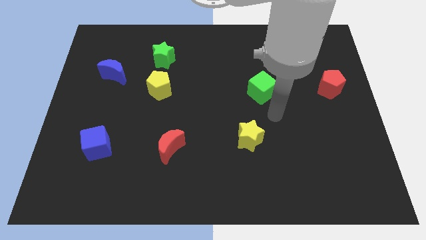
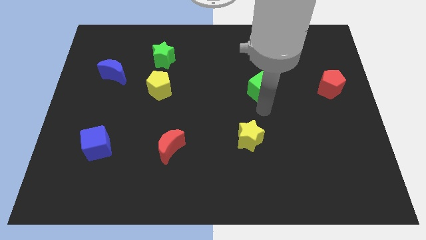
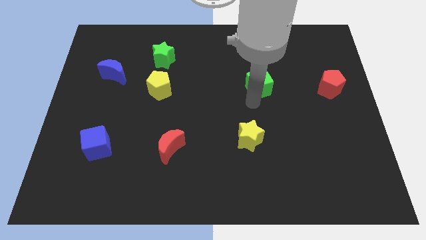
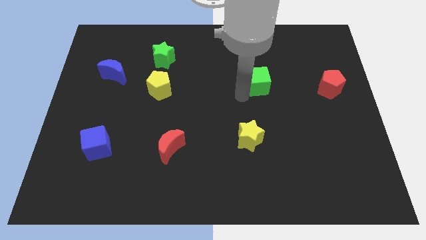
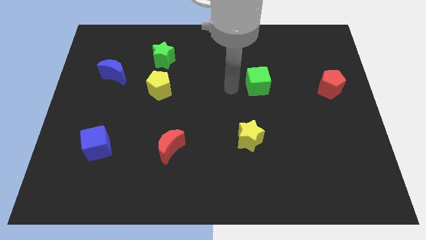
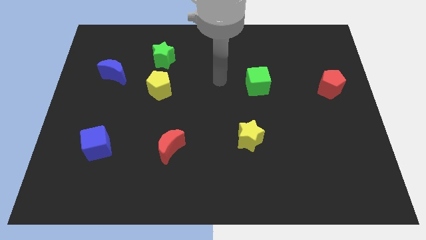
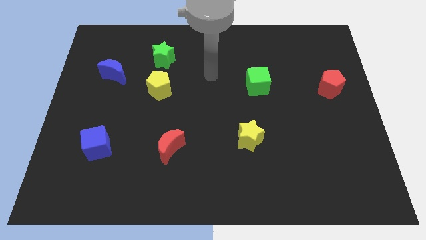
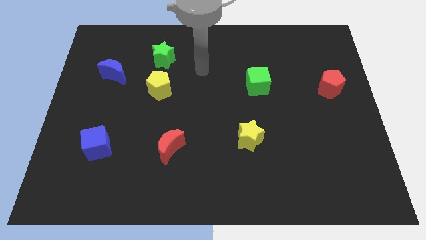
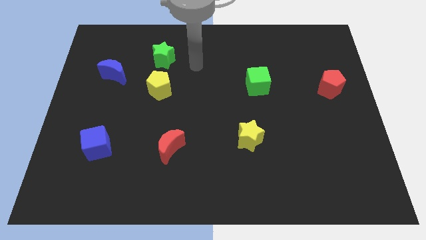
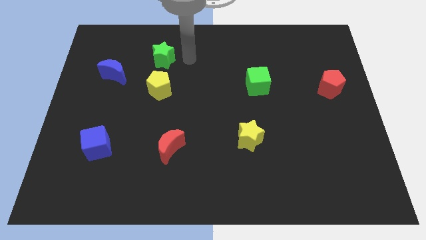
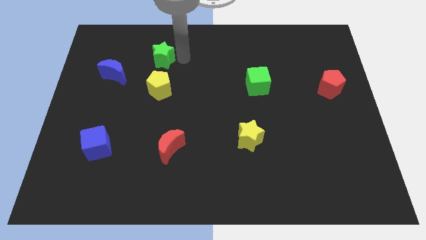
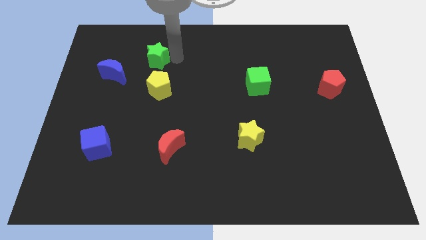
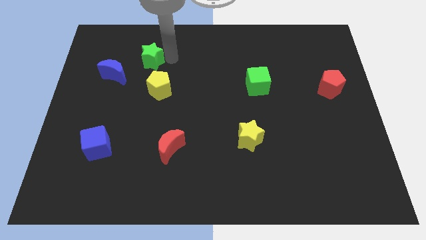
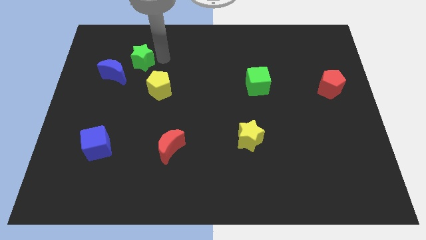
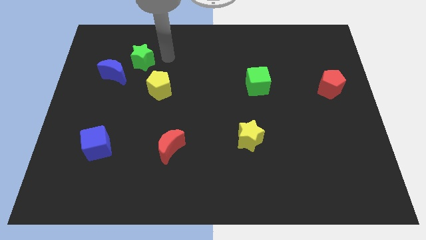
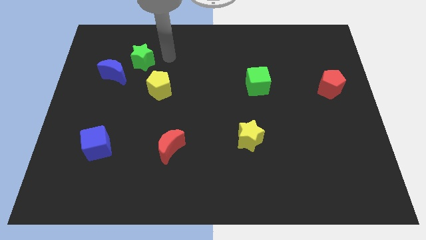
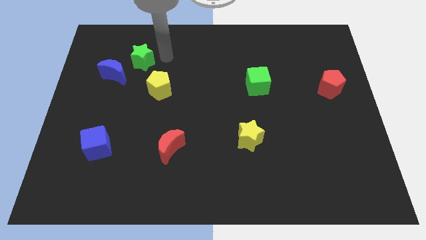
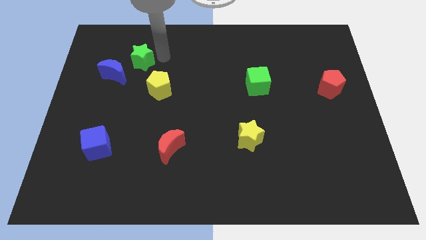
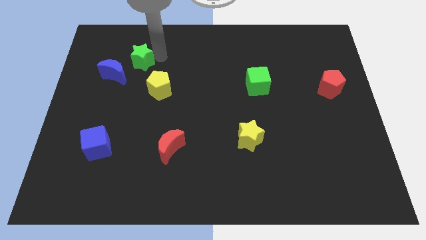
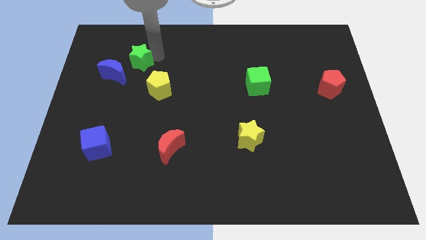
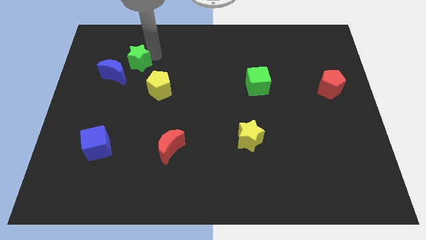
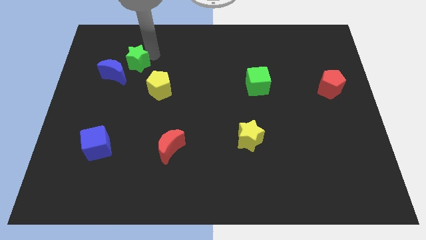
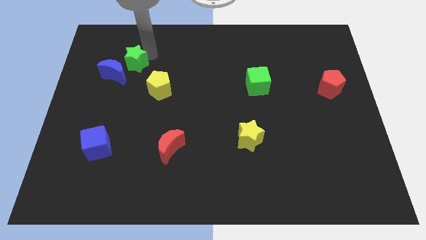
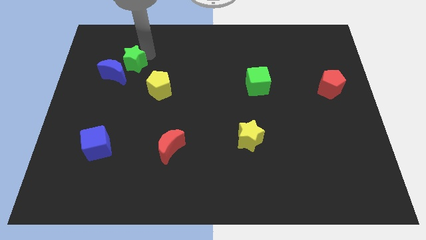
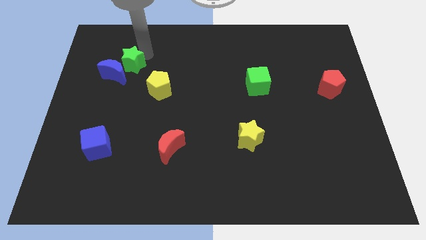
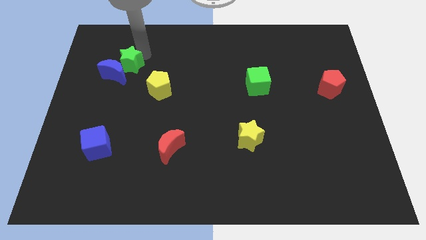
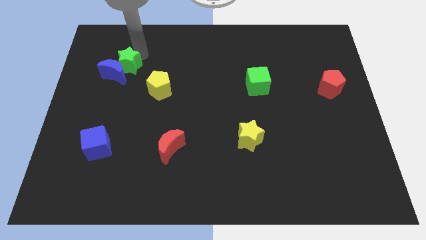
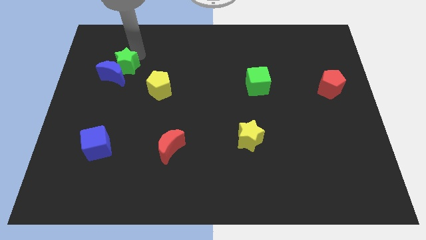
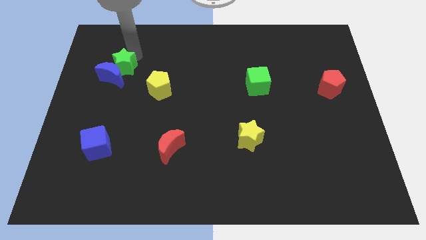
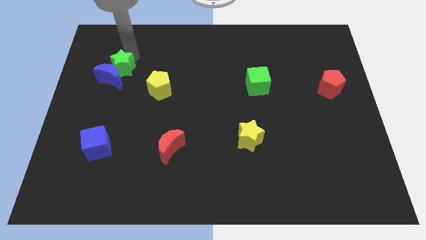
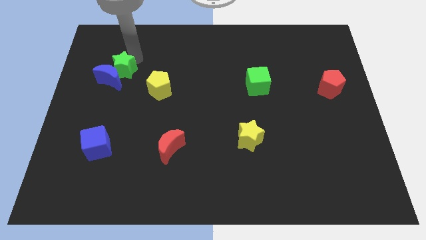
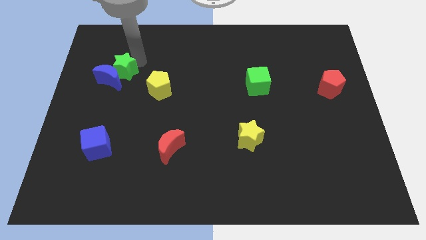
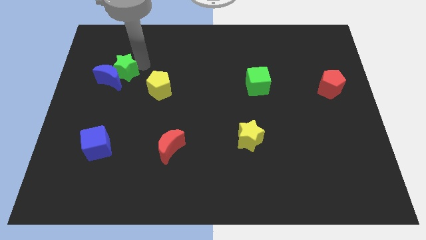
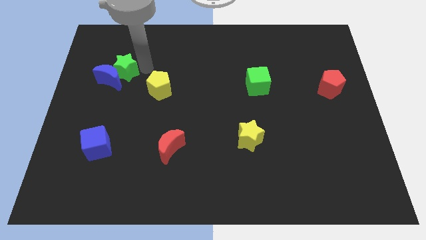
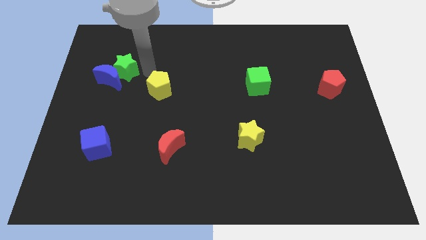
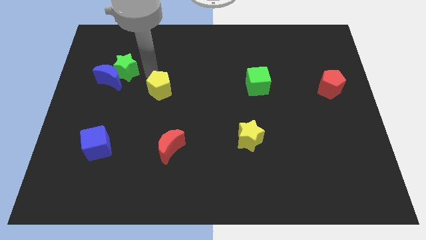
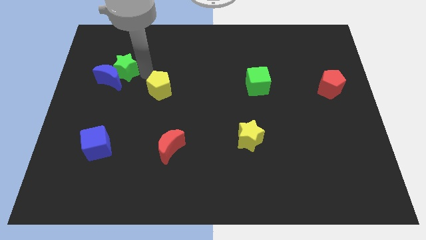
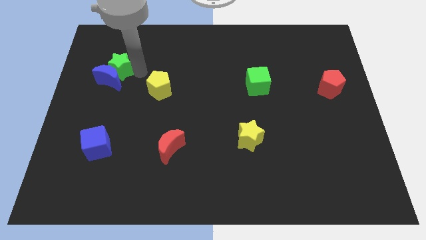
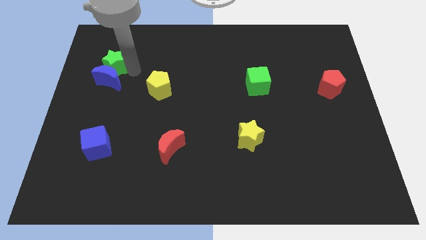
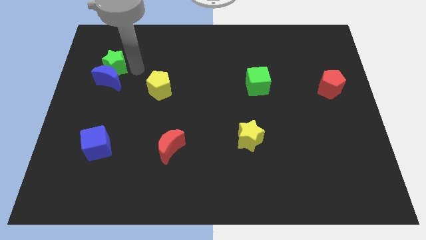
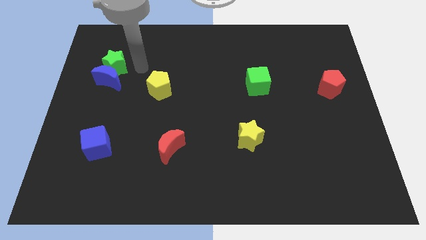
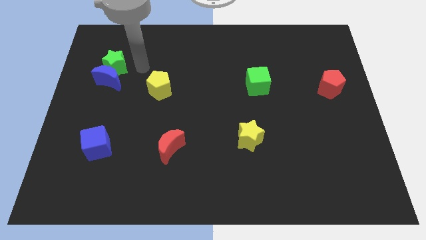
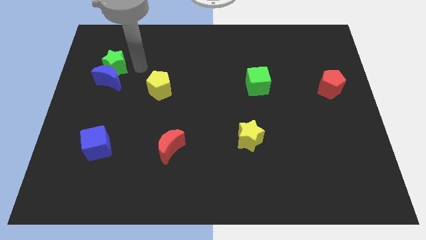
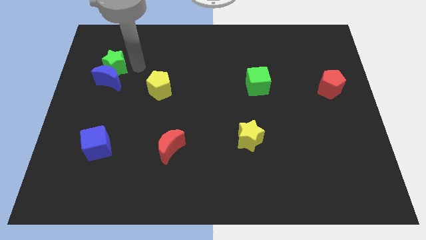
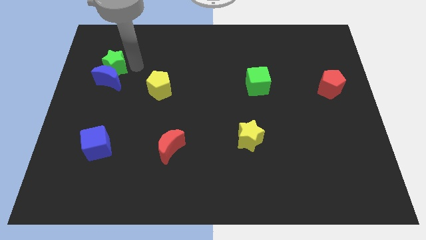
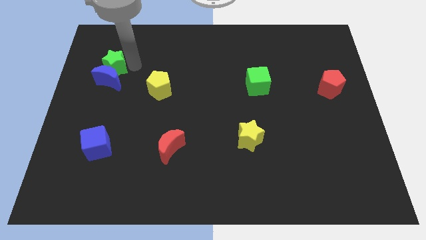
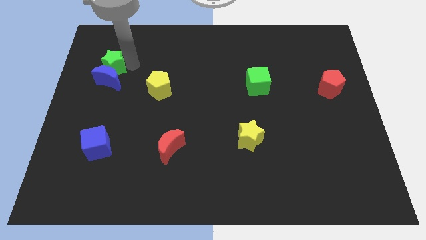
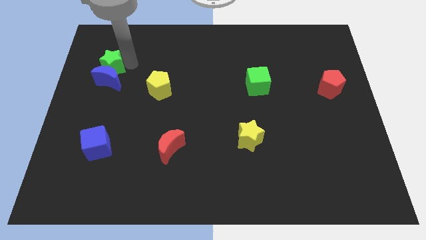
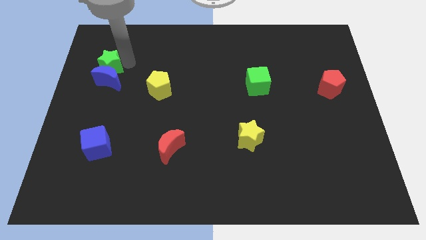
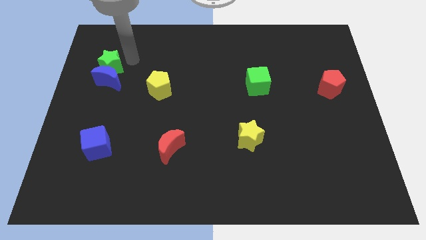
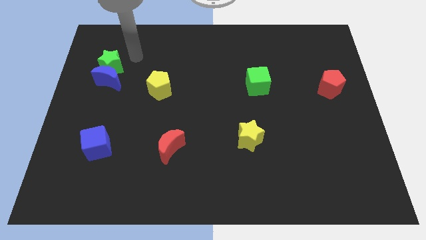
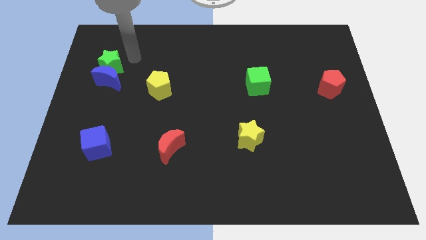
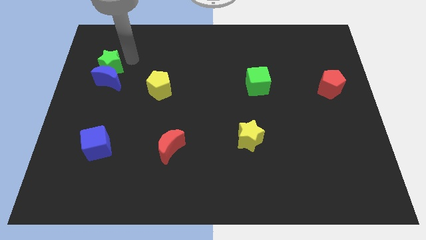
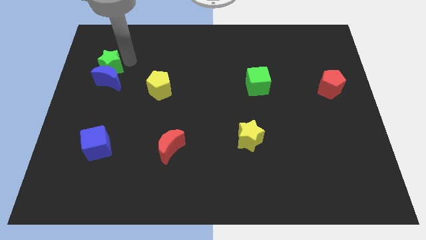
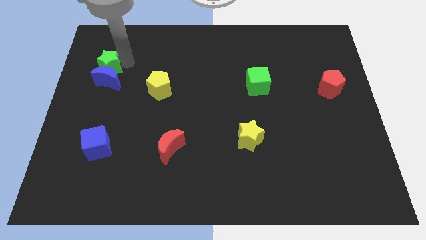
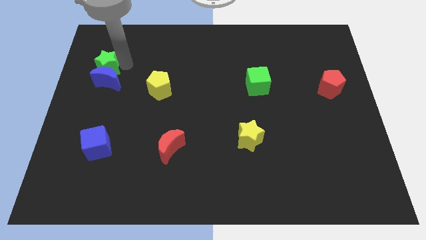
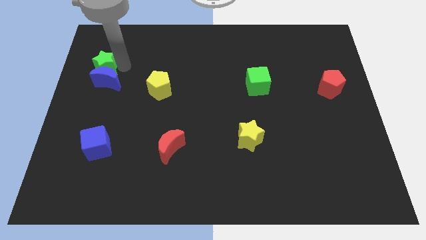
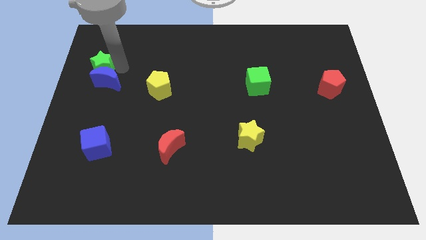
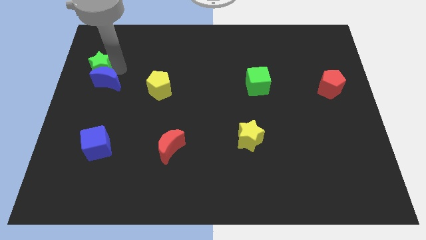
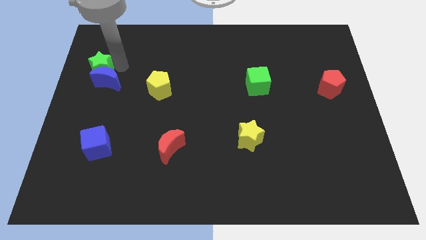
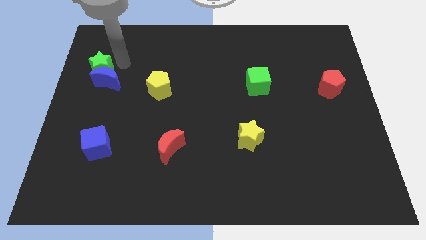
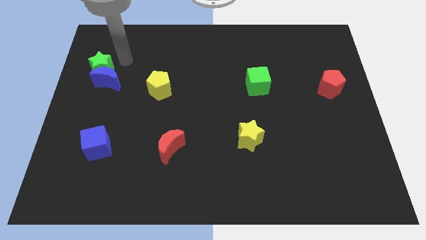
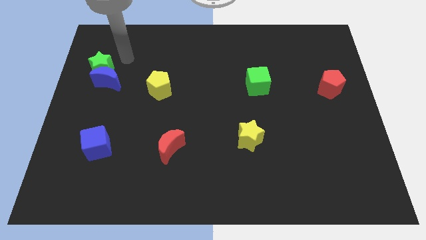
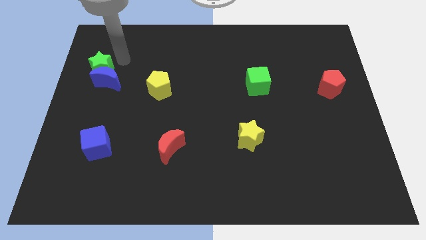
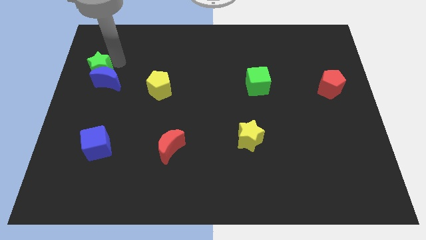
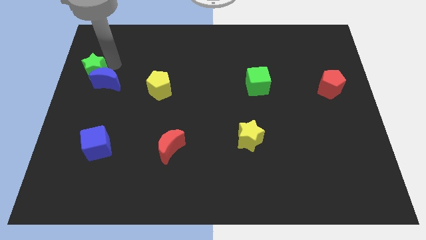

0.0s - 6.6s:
slide the green star to the center left

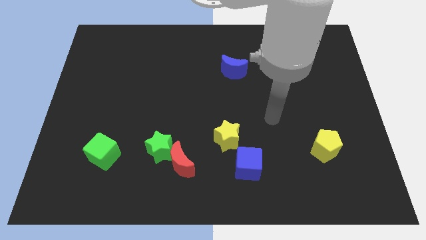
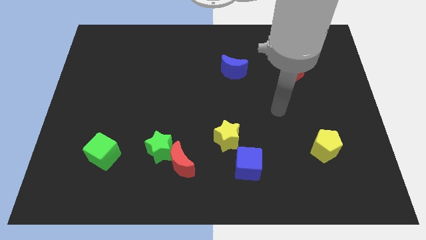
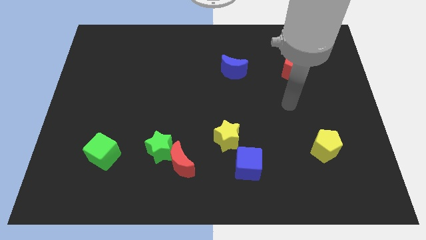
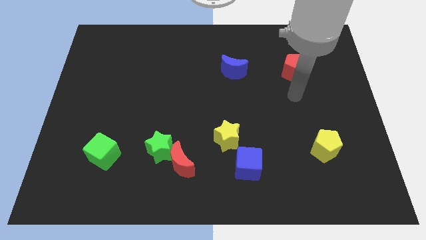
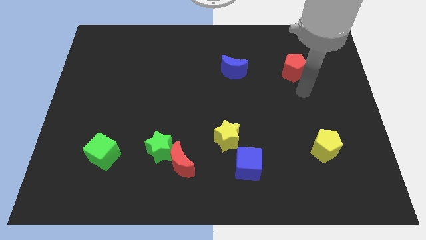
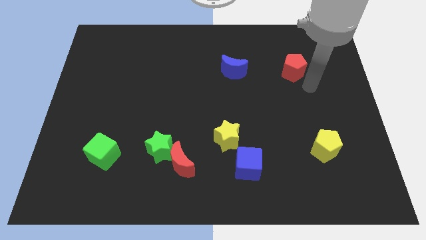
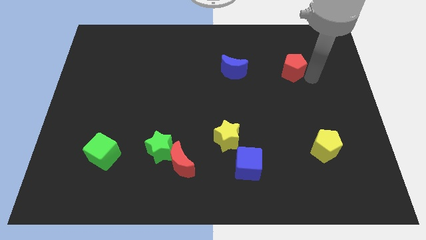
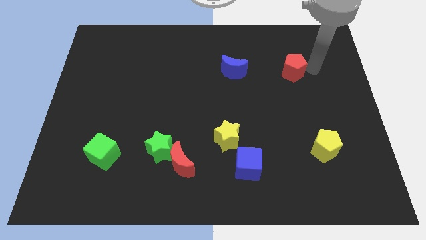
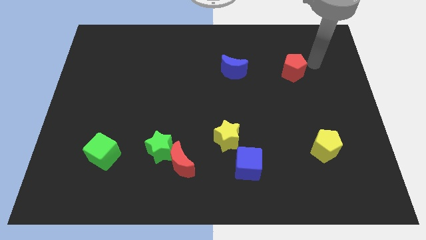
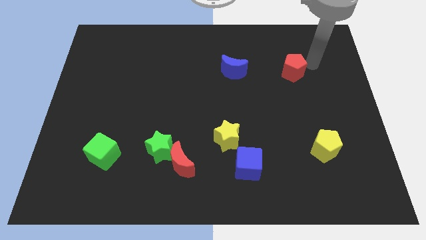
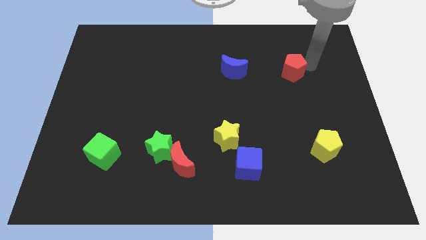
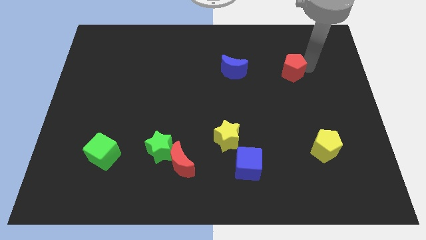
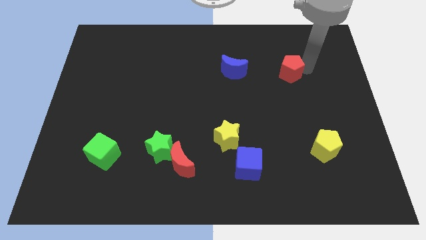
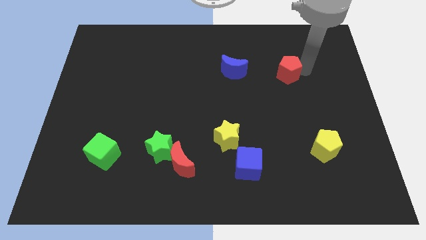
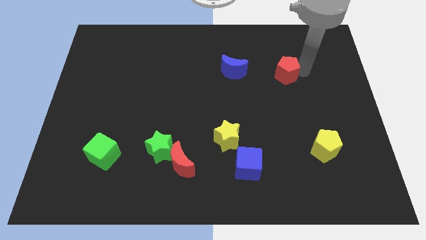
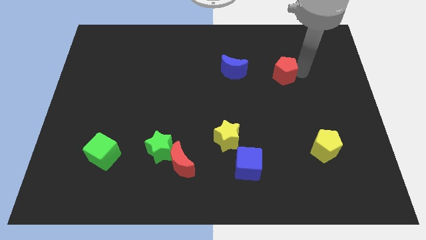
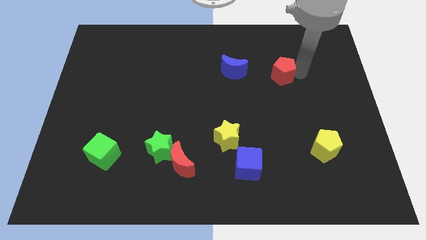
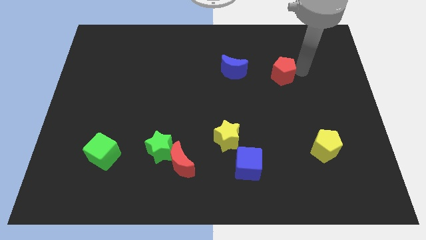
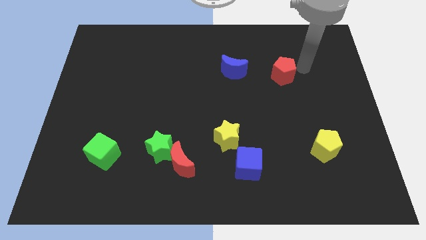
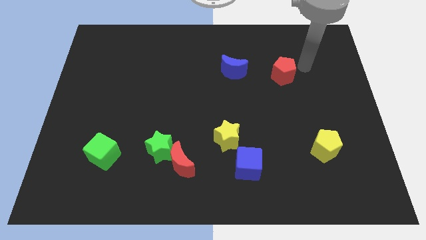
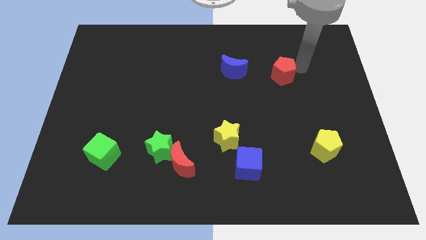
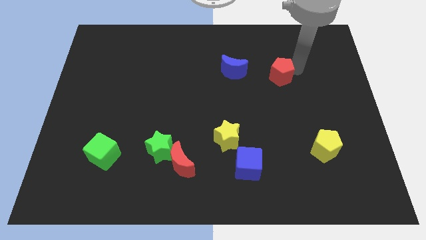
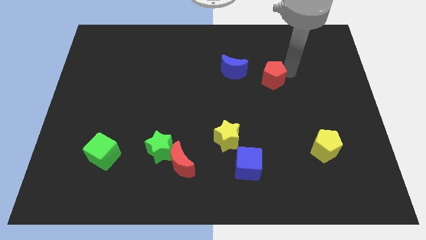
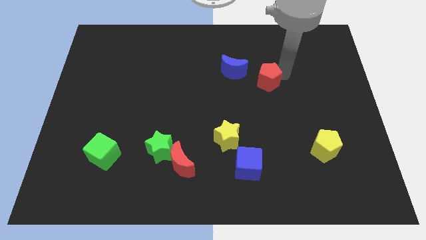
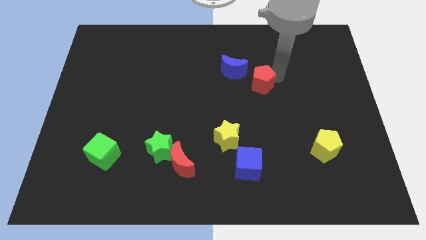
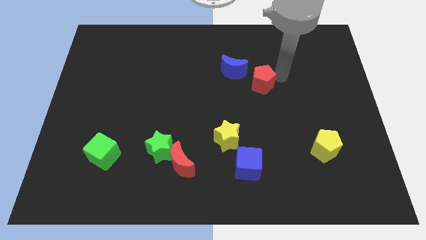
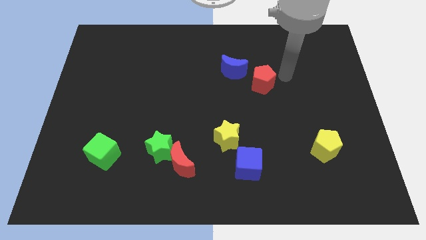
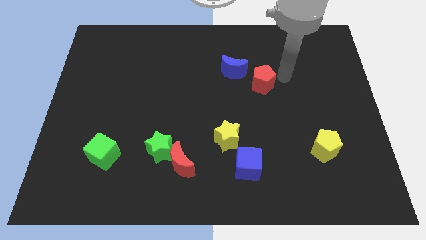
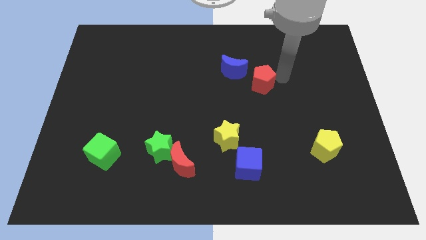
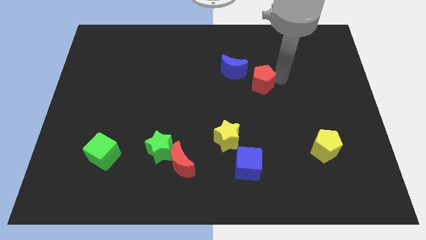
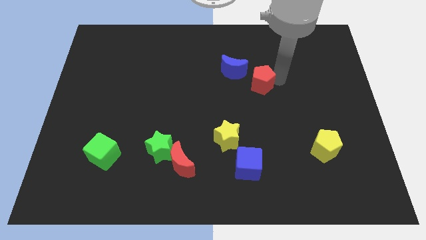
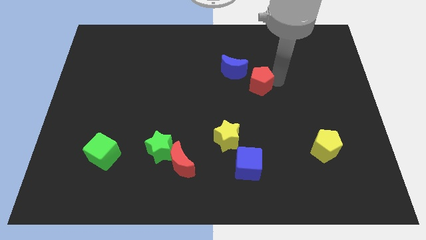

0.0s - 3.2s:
push the red pentagon to the center
